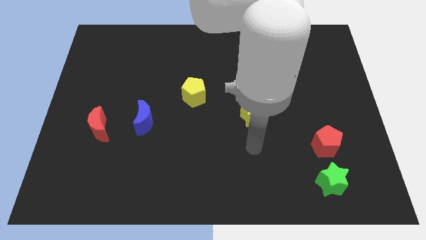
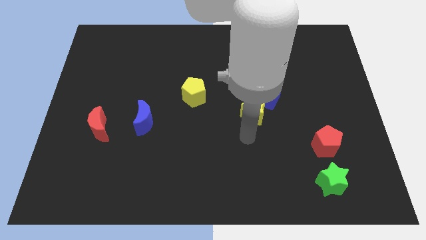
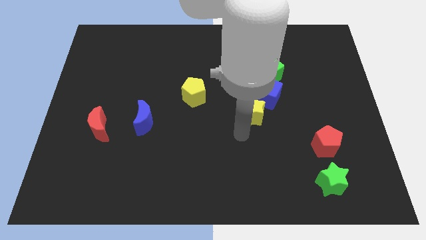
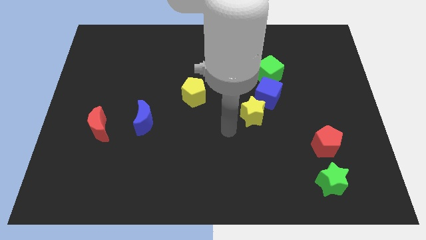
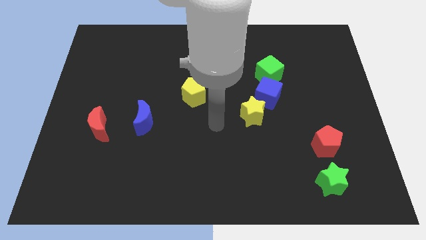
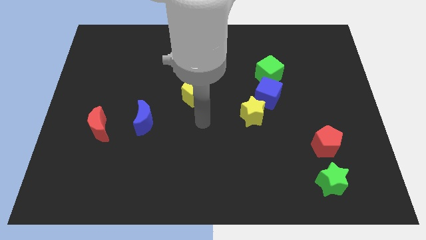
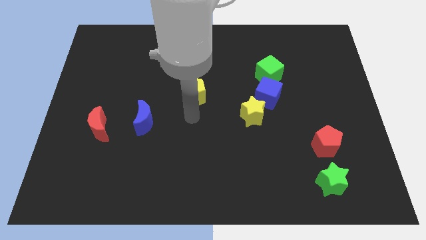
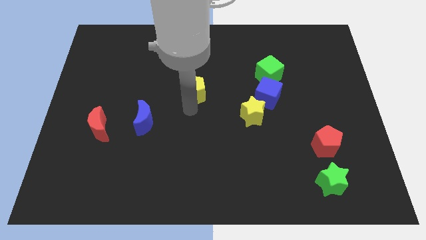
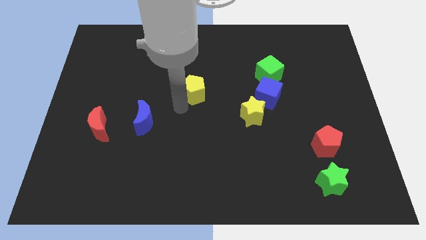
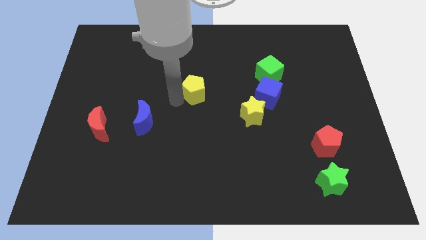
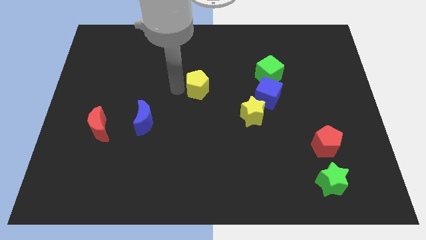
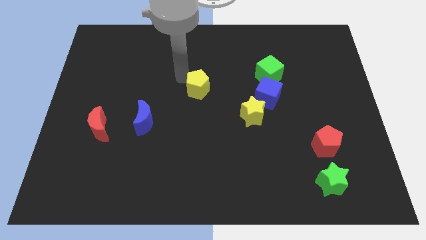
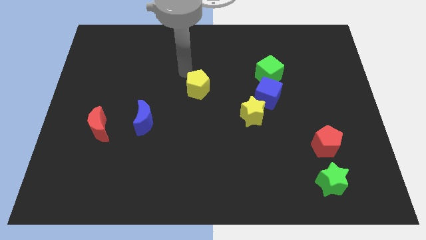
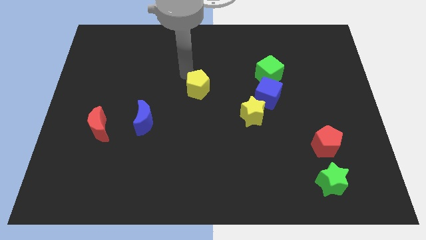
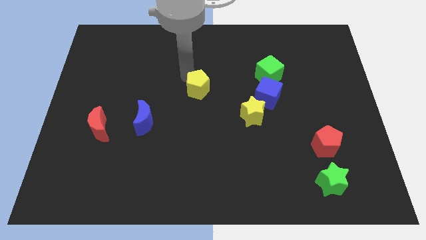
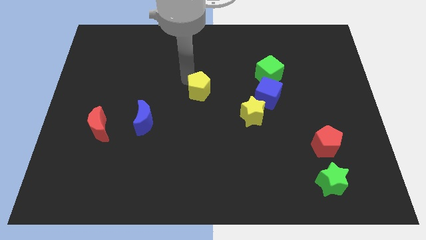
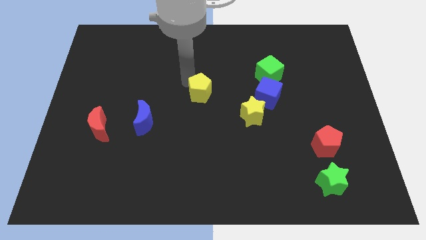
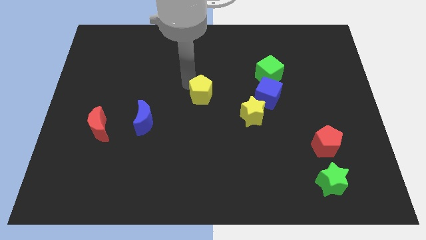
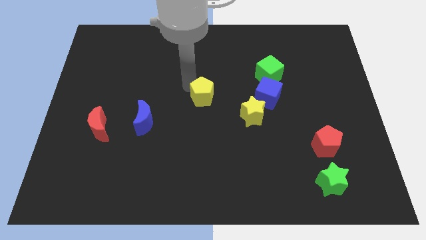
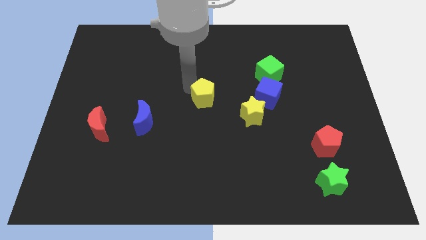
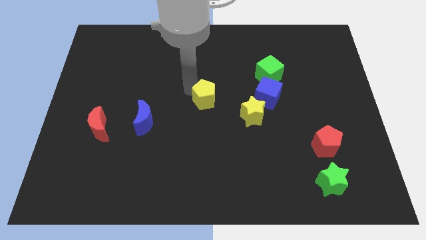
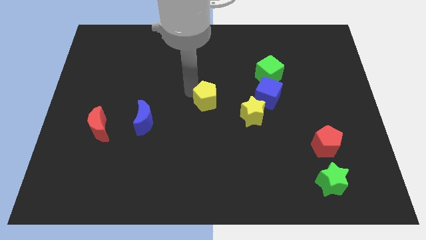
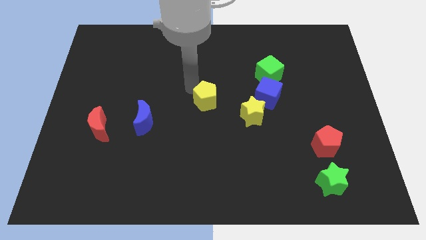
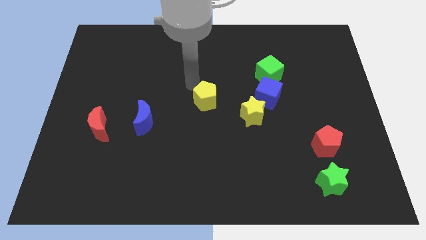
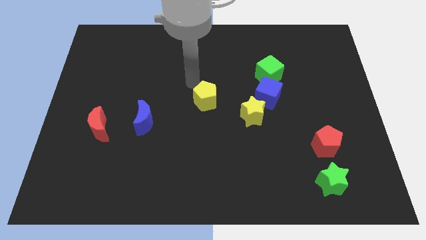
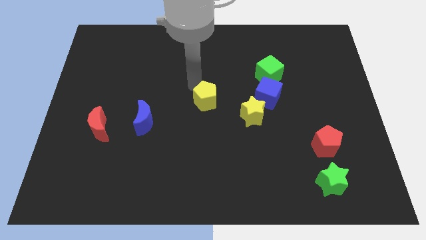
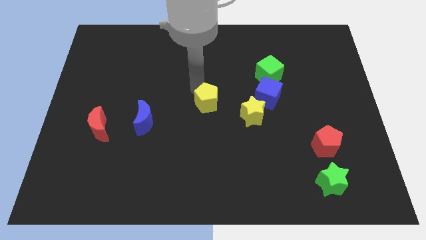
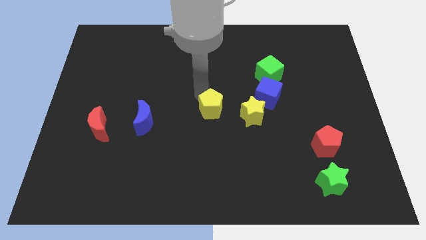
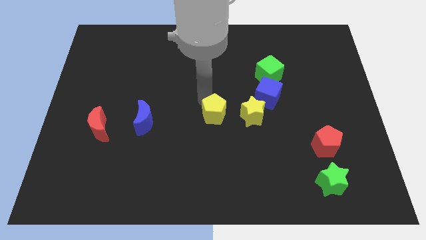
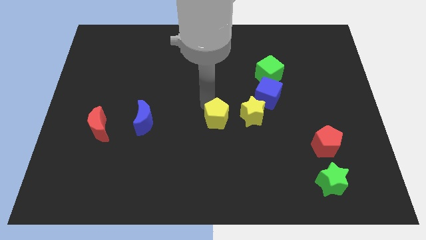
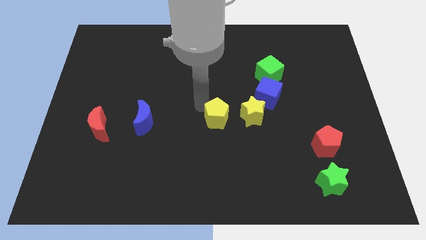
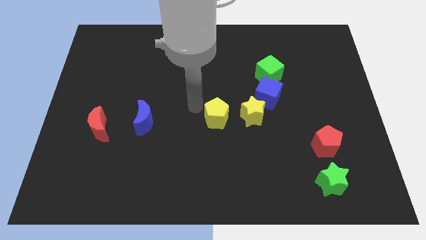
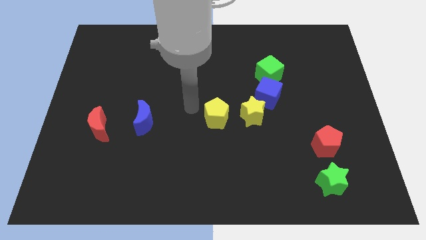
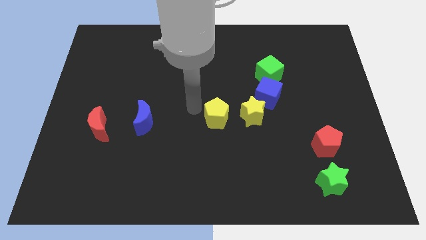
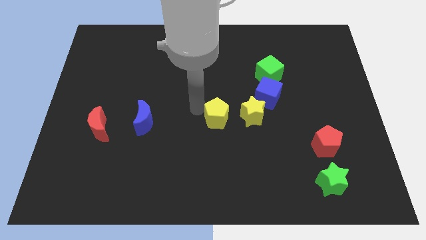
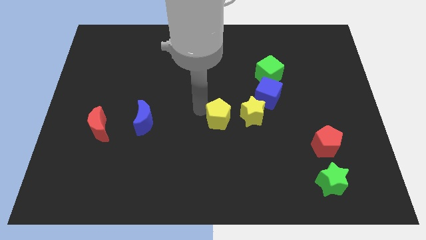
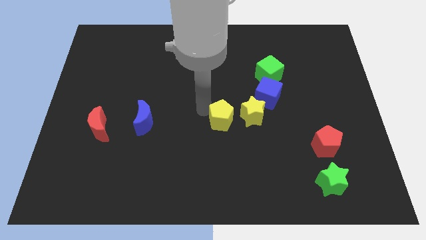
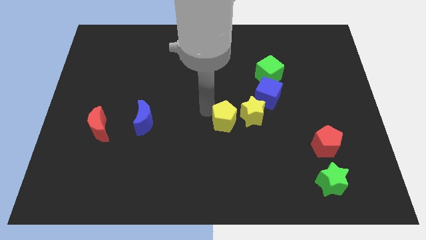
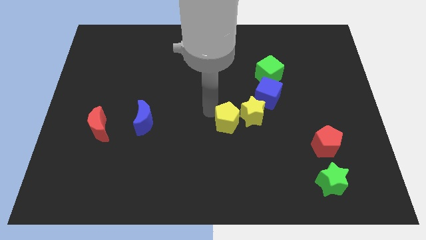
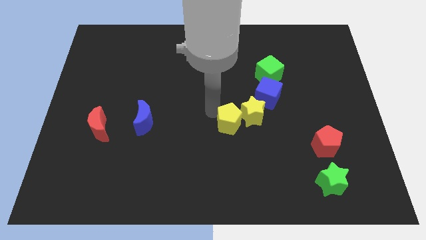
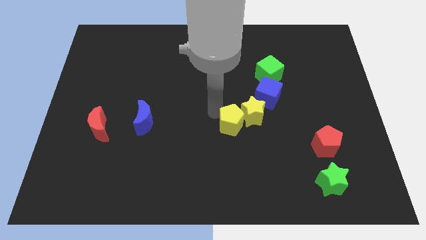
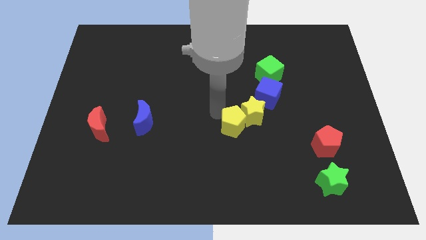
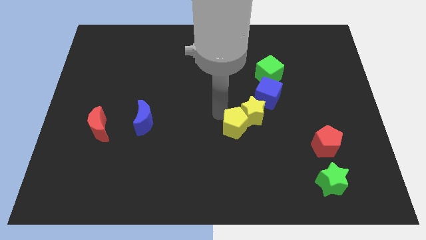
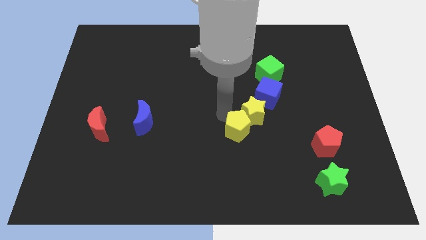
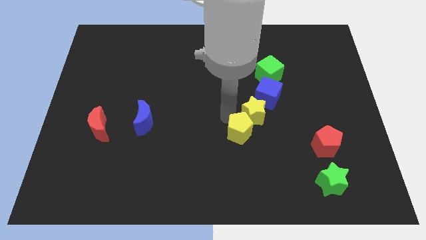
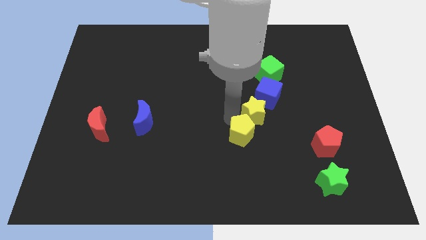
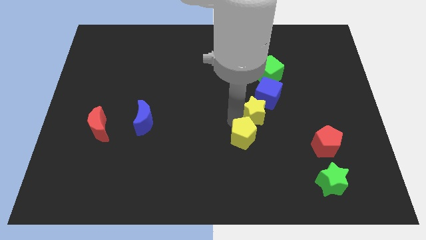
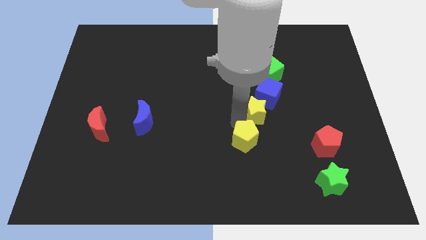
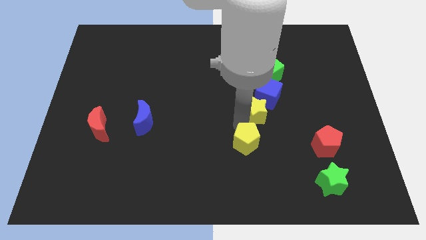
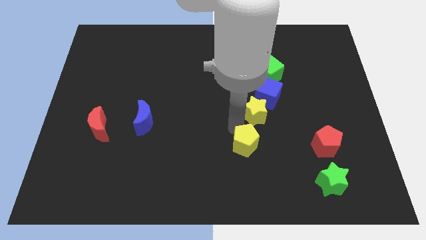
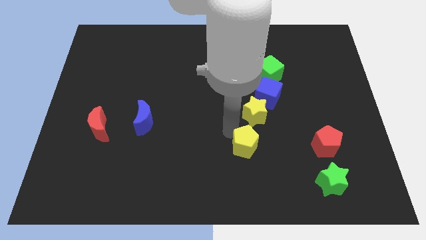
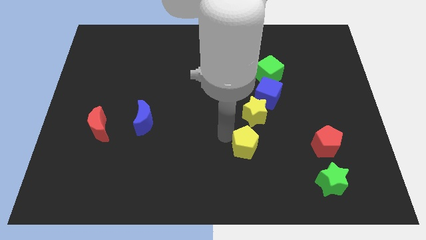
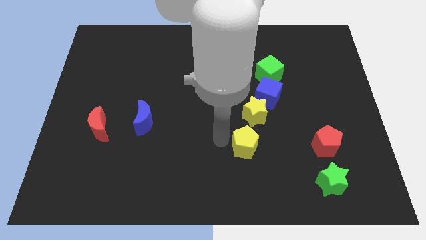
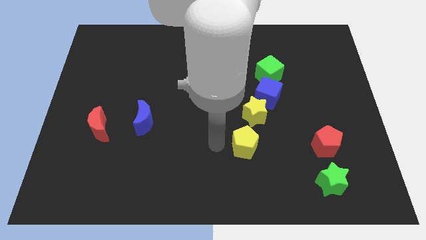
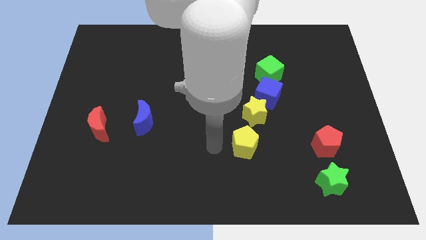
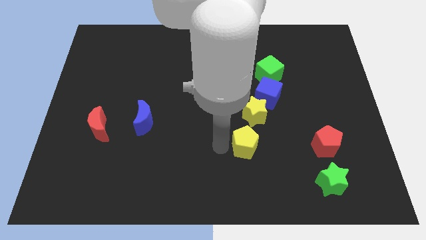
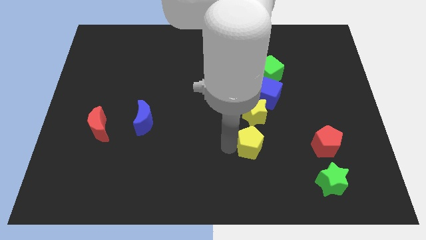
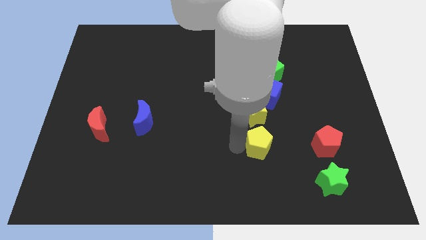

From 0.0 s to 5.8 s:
move the yellow pentagon just left of the red pentagon

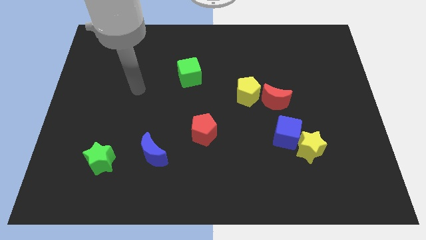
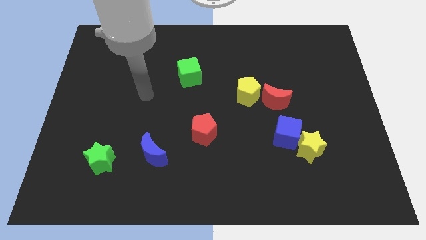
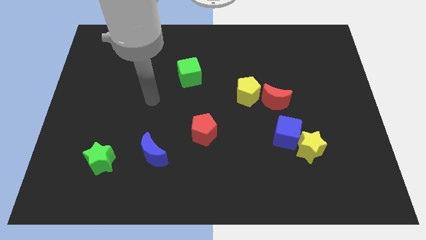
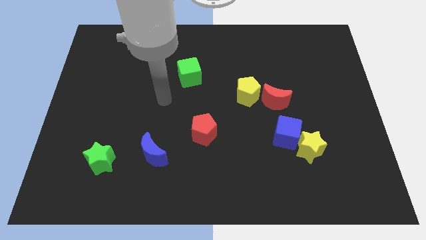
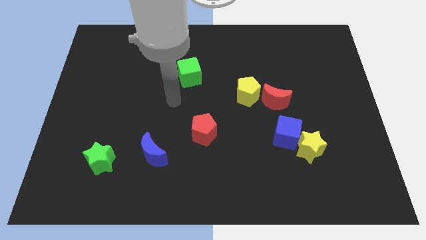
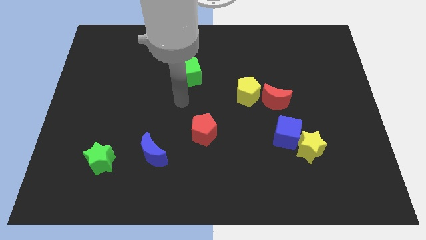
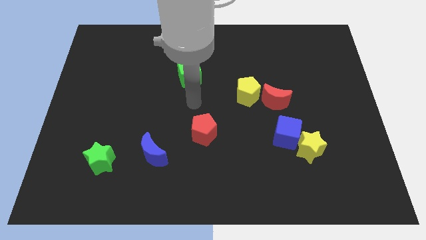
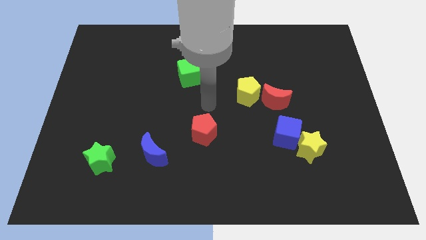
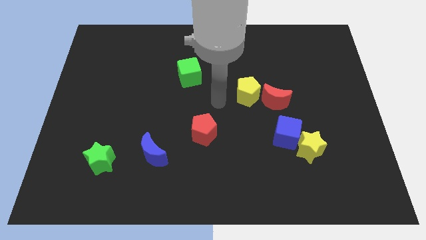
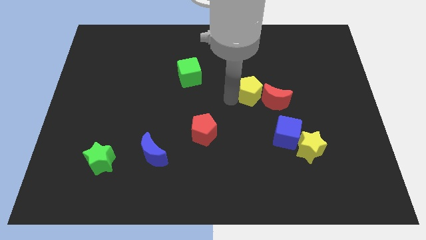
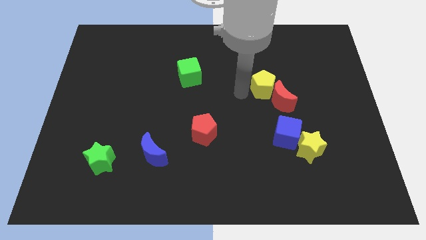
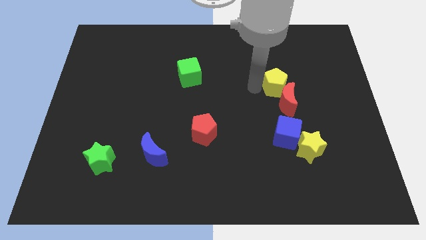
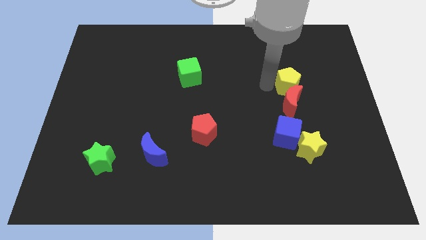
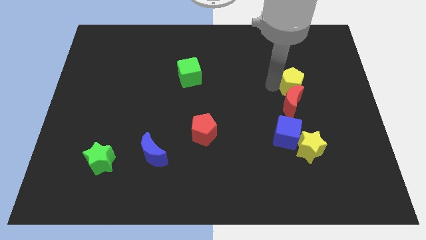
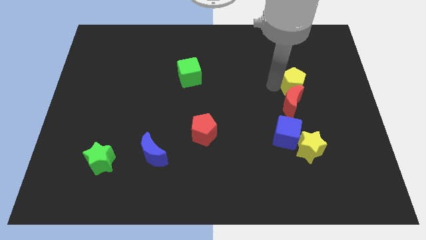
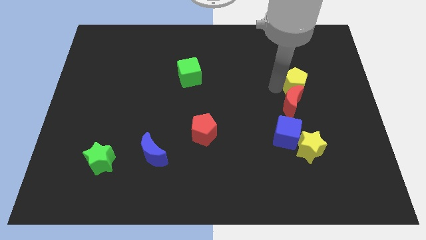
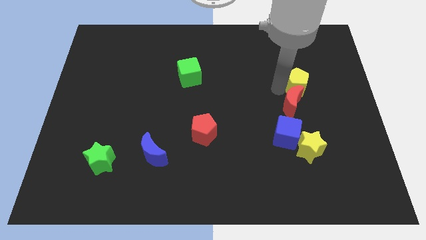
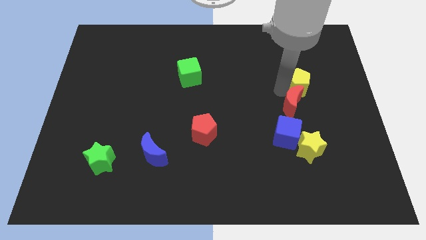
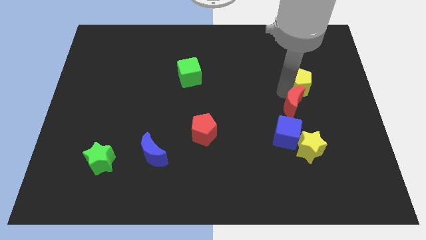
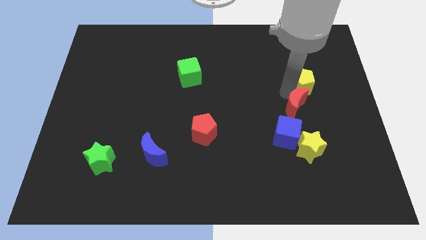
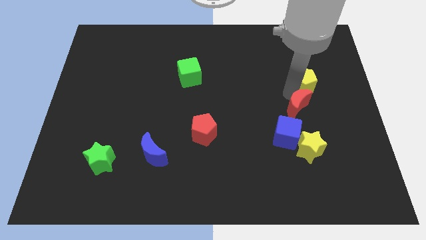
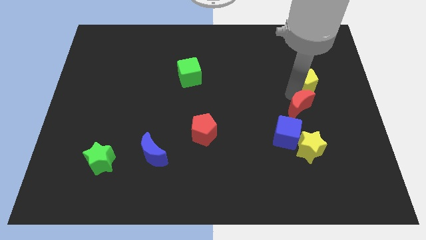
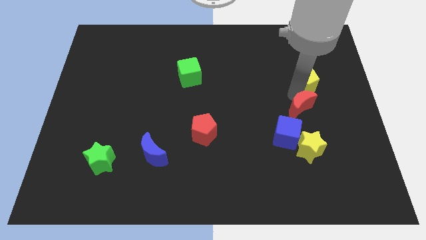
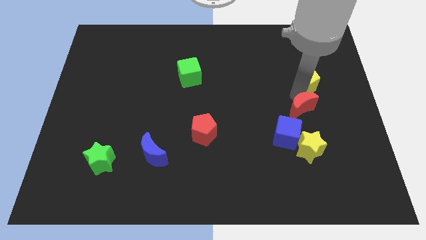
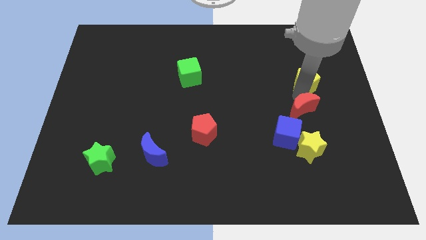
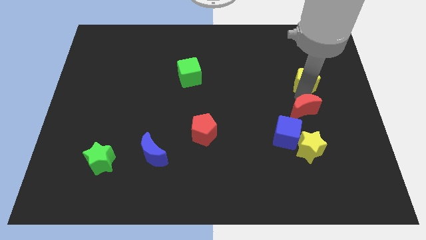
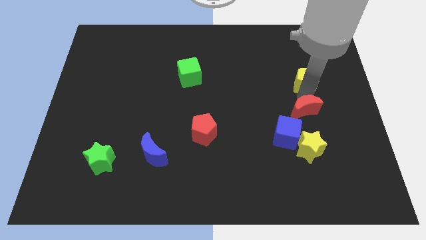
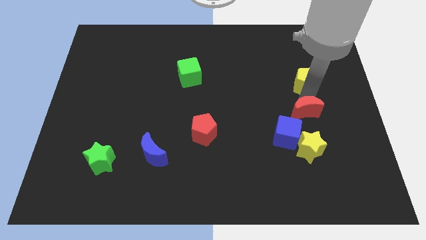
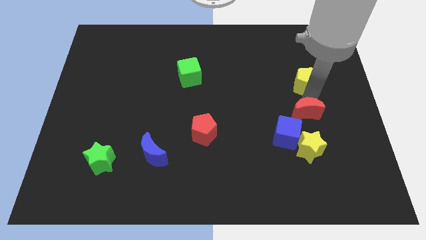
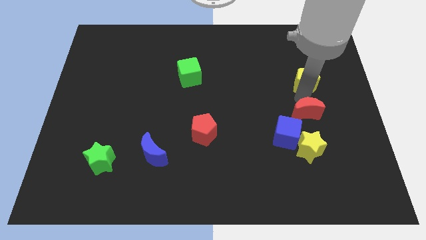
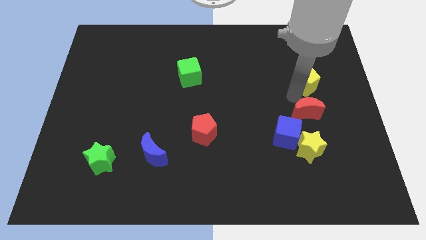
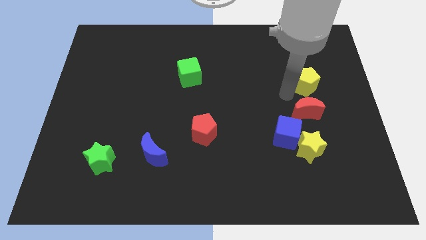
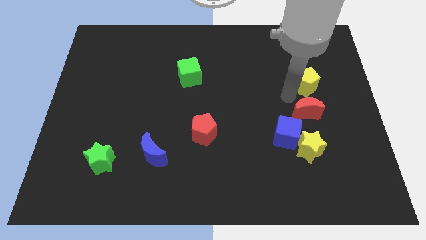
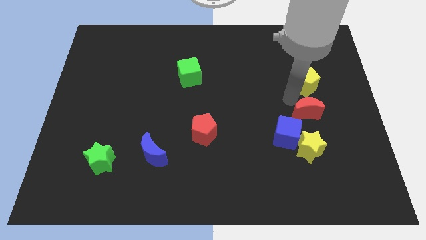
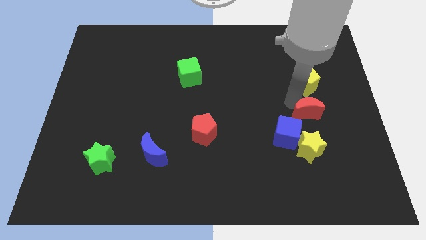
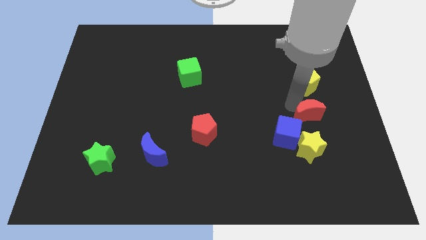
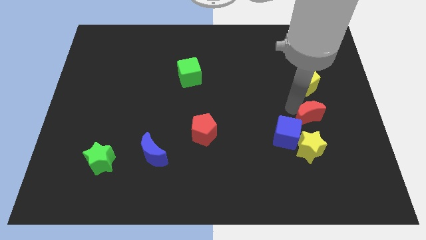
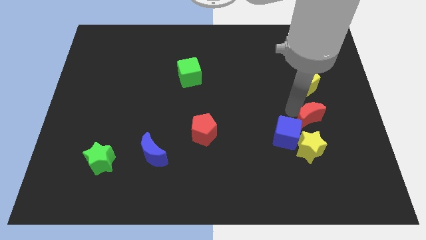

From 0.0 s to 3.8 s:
put the red moon right of the blue cube
